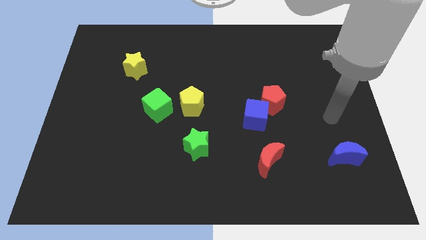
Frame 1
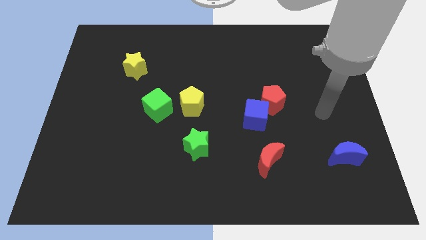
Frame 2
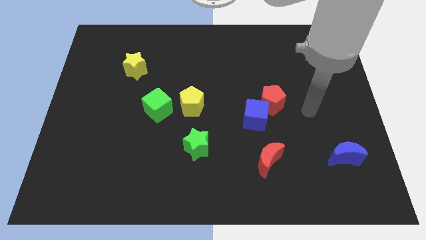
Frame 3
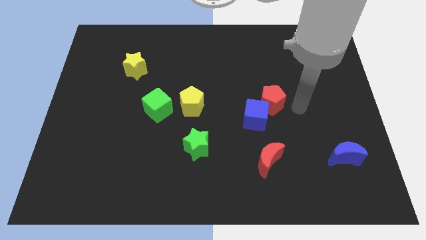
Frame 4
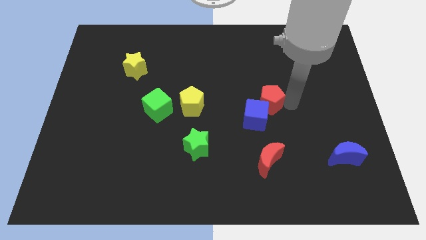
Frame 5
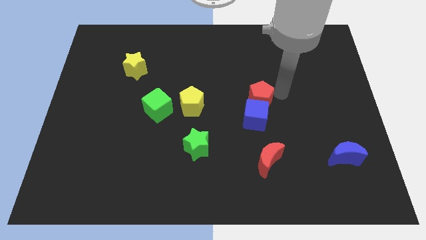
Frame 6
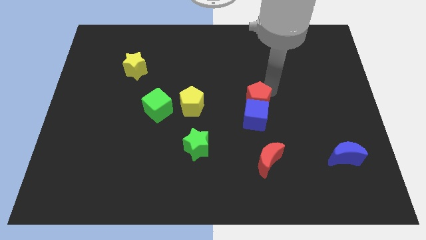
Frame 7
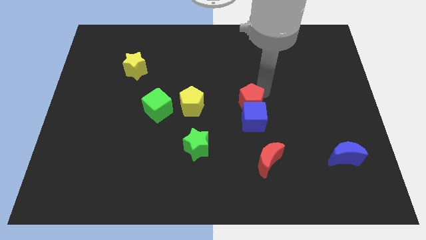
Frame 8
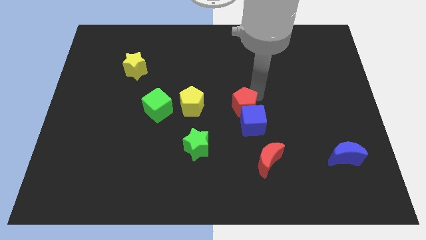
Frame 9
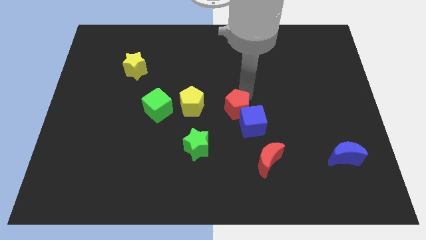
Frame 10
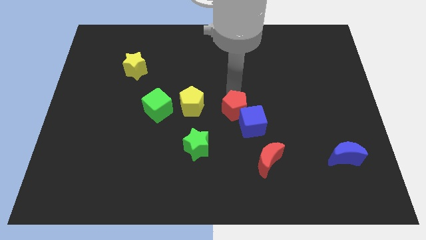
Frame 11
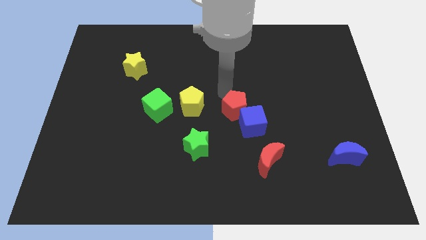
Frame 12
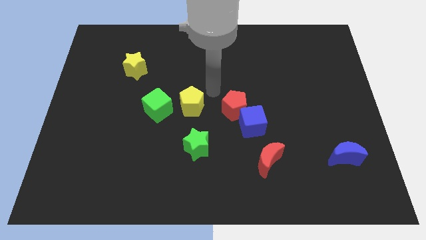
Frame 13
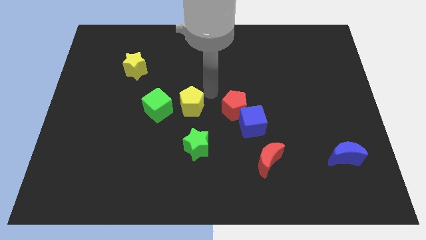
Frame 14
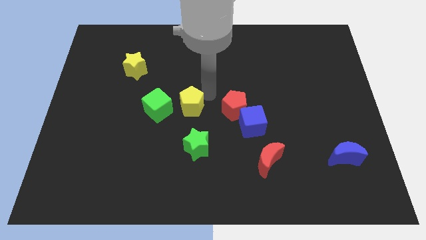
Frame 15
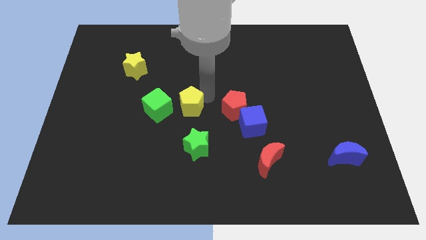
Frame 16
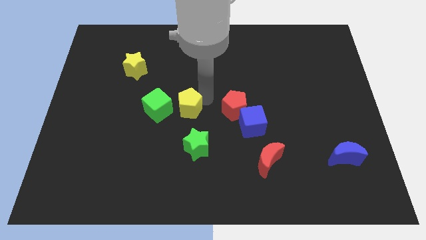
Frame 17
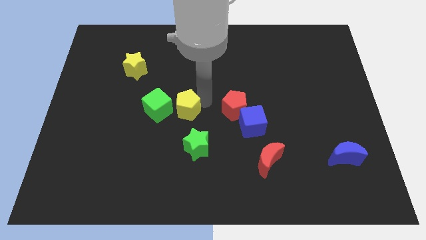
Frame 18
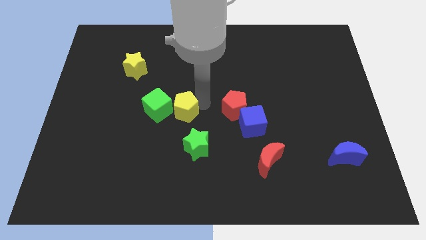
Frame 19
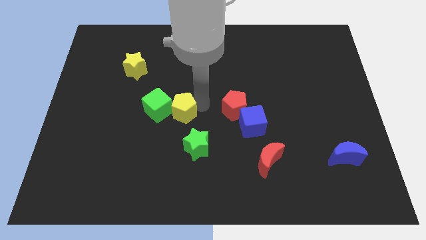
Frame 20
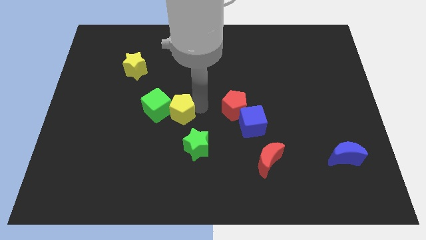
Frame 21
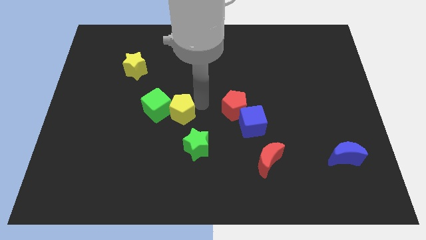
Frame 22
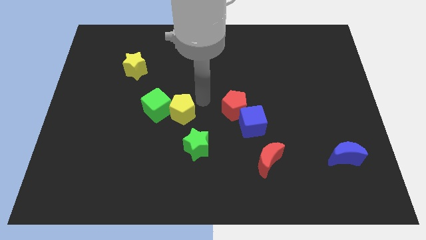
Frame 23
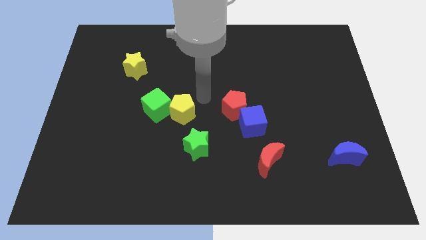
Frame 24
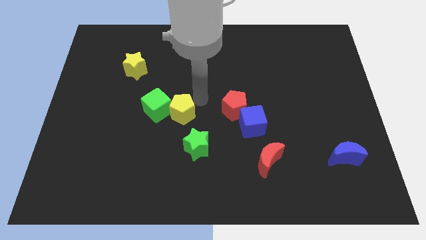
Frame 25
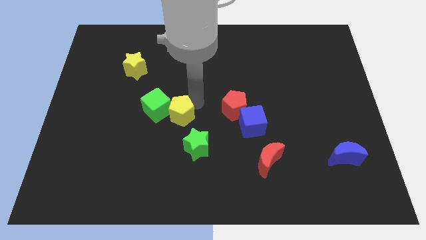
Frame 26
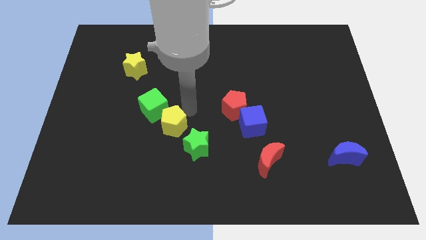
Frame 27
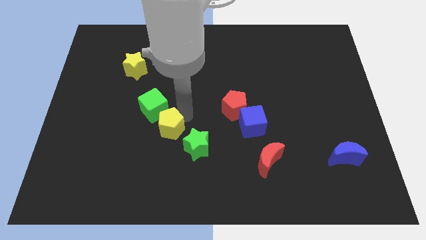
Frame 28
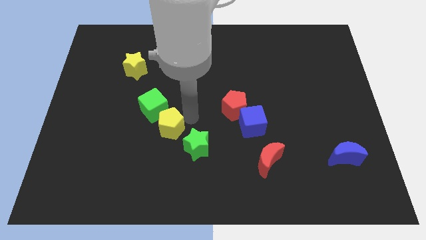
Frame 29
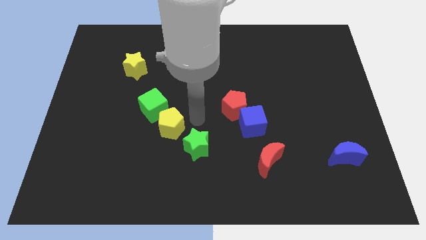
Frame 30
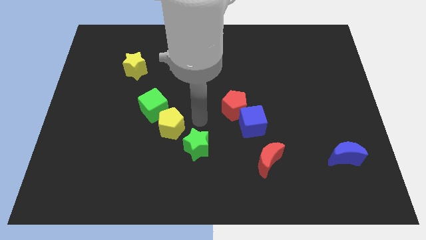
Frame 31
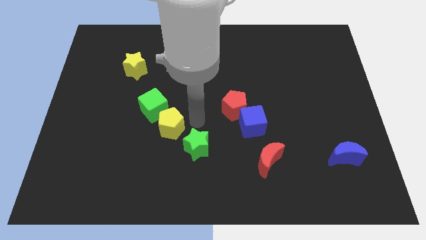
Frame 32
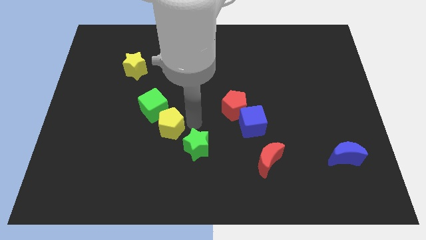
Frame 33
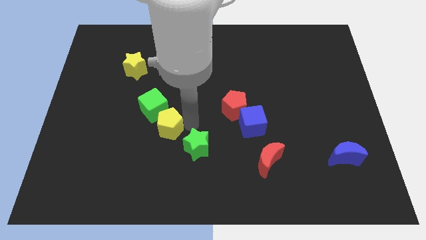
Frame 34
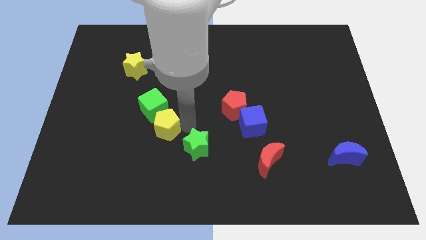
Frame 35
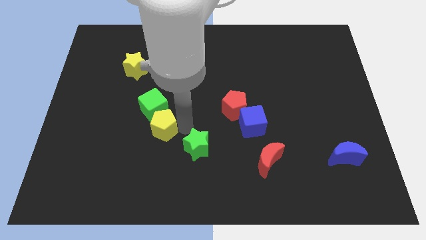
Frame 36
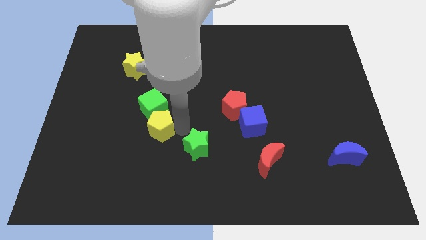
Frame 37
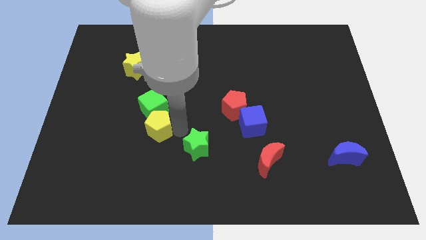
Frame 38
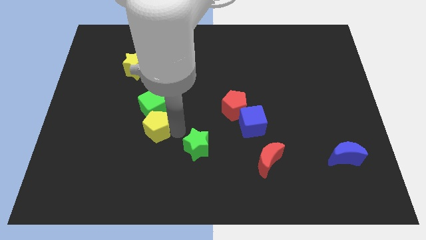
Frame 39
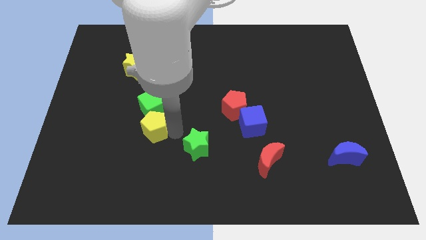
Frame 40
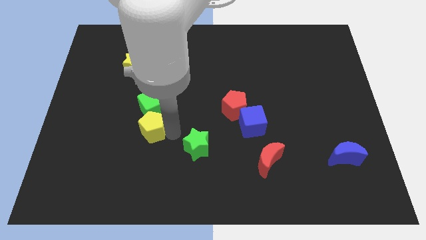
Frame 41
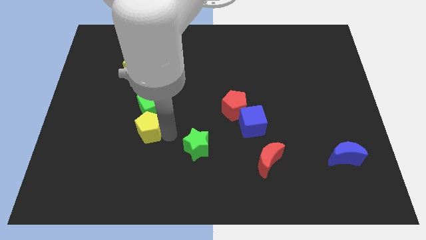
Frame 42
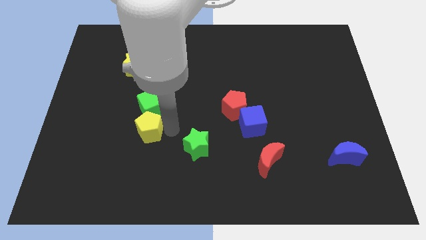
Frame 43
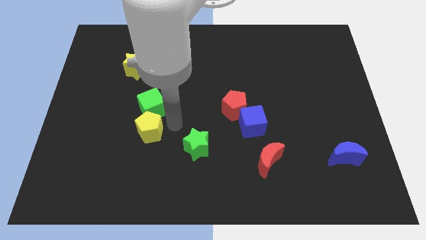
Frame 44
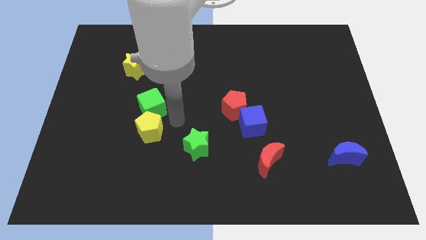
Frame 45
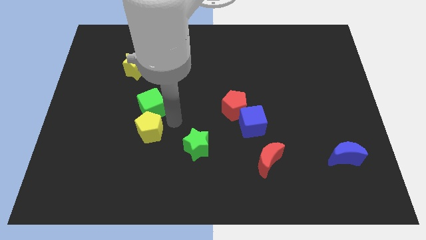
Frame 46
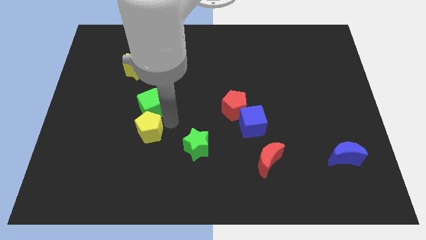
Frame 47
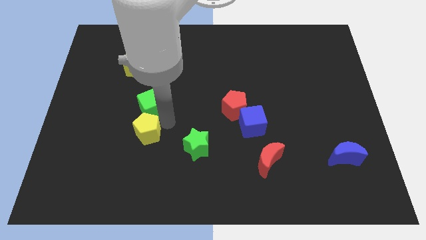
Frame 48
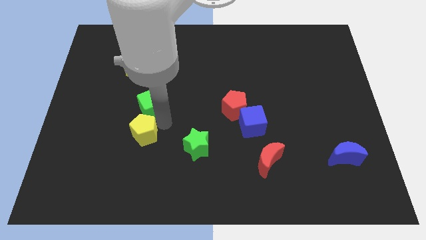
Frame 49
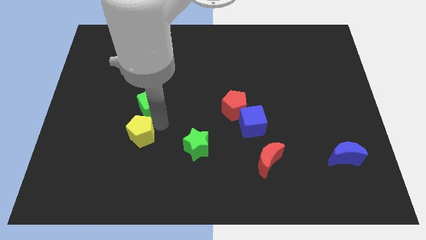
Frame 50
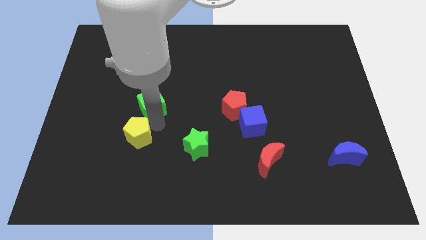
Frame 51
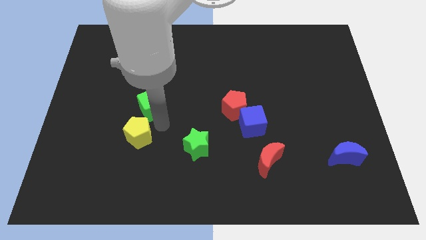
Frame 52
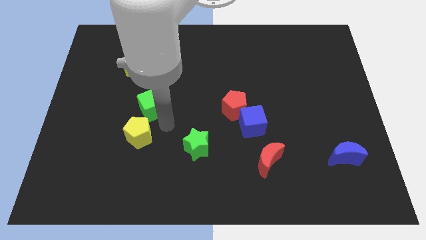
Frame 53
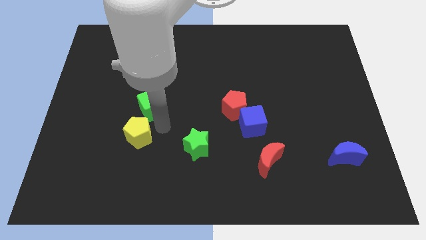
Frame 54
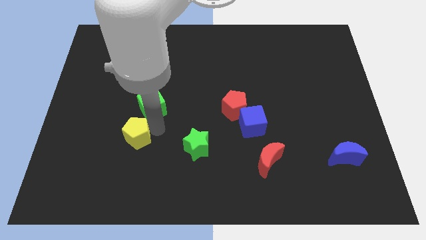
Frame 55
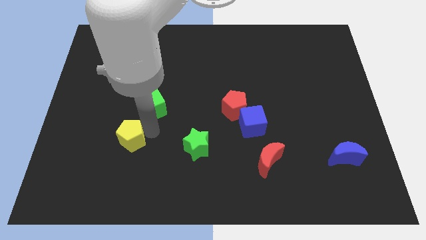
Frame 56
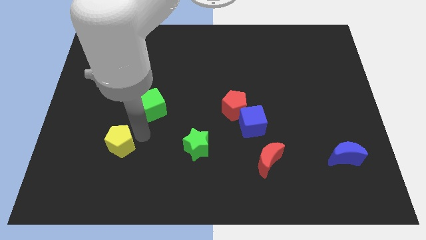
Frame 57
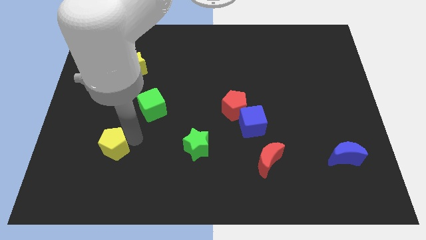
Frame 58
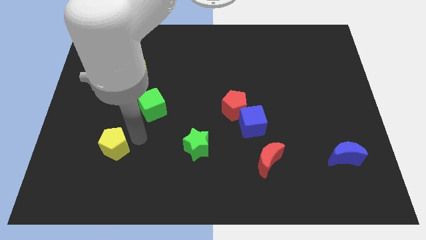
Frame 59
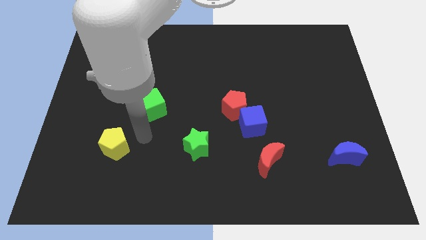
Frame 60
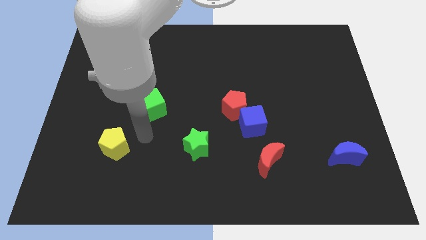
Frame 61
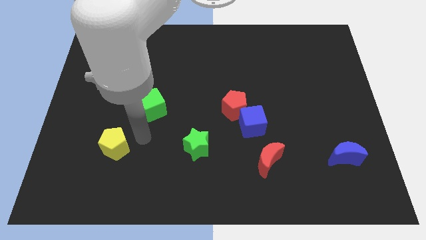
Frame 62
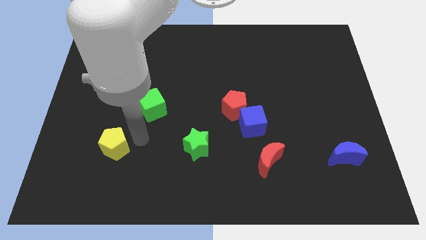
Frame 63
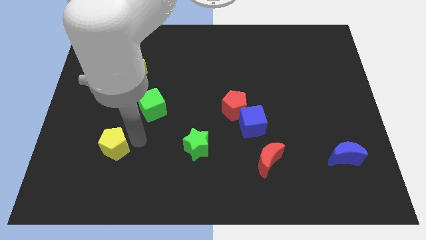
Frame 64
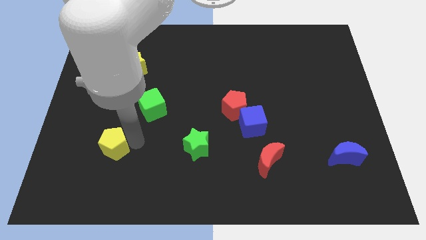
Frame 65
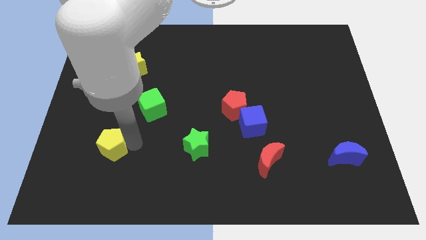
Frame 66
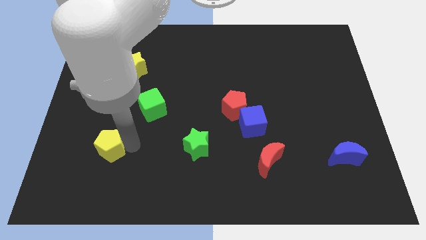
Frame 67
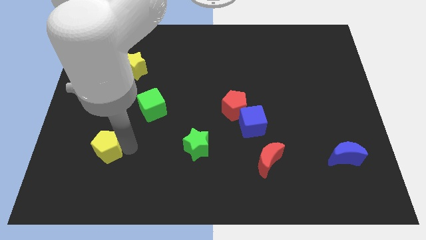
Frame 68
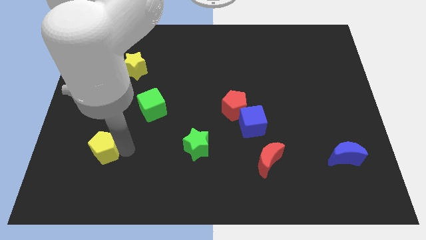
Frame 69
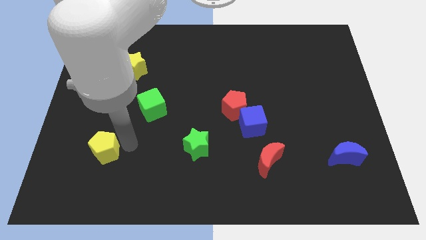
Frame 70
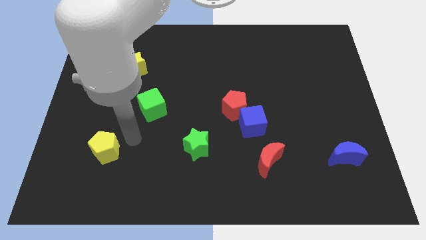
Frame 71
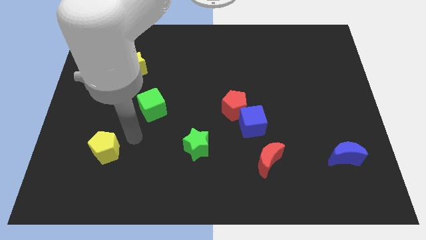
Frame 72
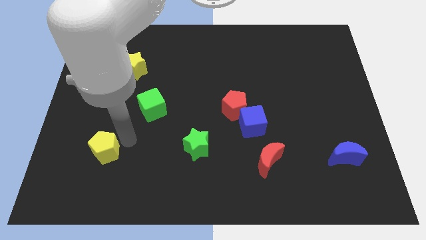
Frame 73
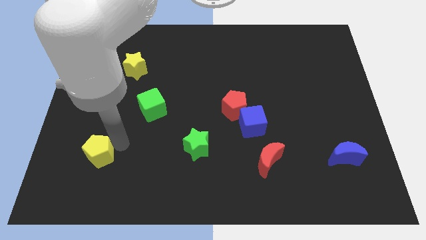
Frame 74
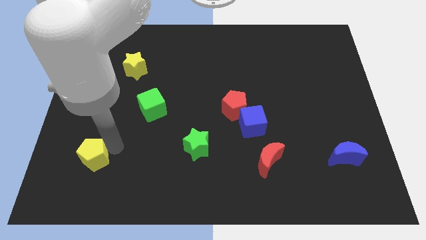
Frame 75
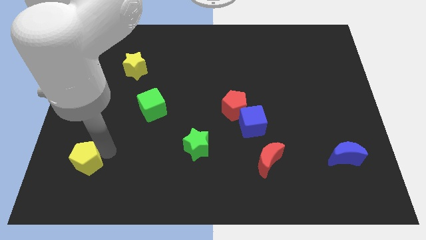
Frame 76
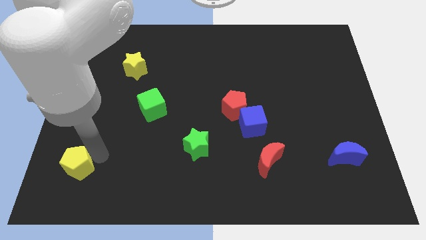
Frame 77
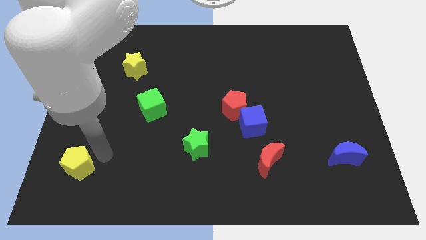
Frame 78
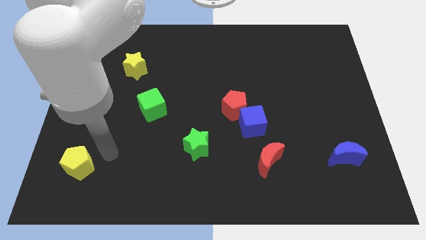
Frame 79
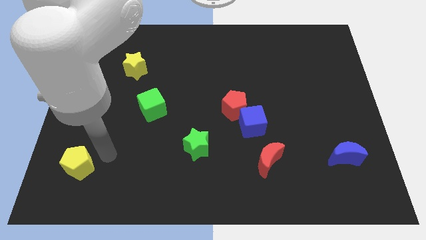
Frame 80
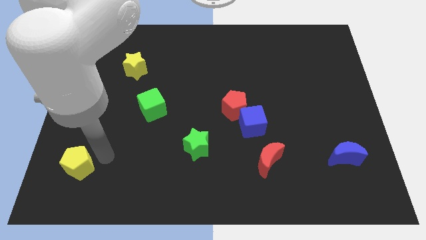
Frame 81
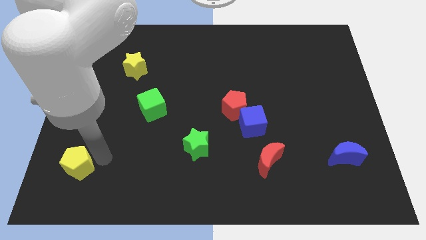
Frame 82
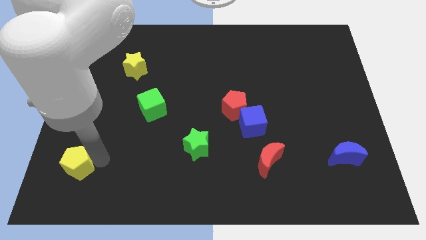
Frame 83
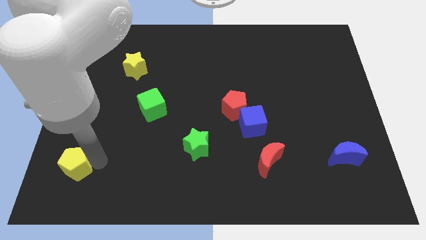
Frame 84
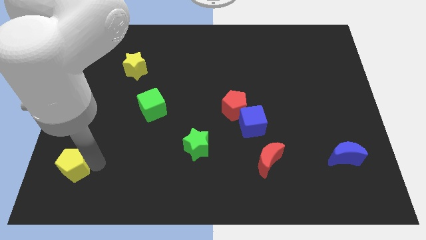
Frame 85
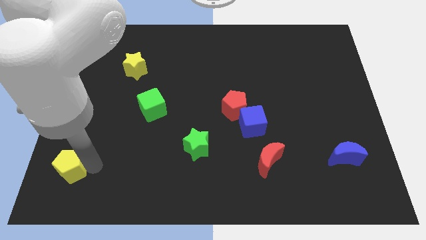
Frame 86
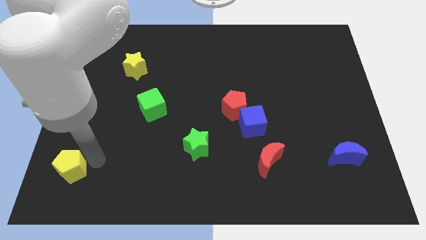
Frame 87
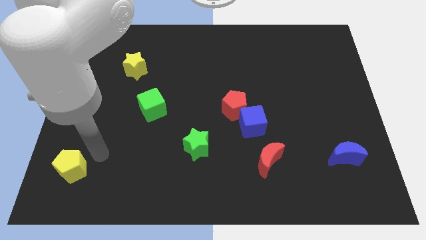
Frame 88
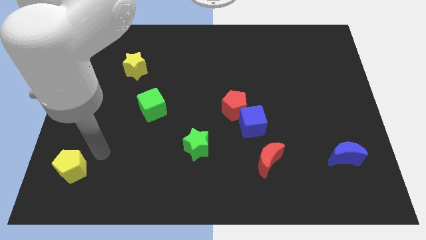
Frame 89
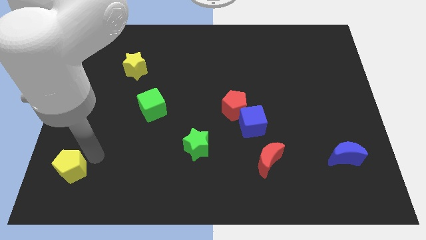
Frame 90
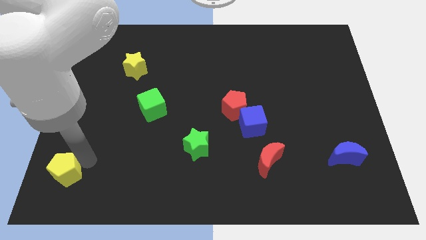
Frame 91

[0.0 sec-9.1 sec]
push the yellow pentagon to the bottom left corner
